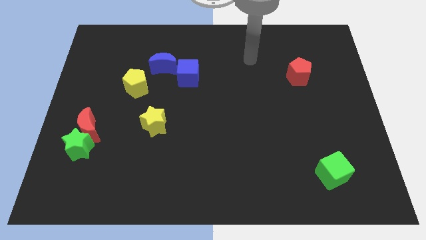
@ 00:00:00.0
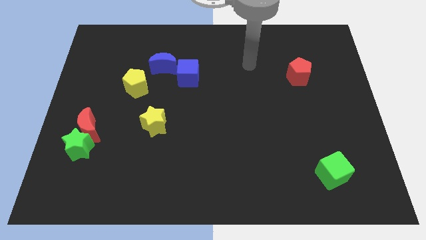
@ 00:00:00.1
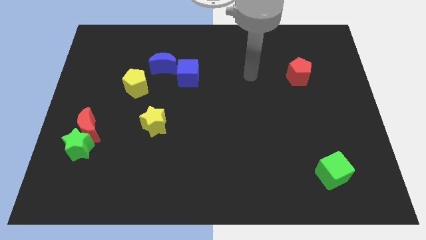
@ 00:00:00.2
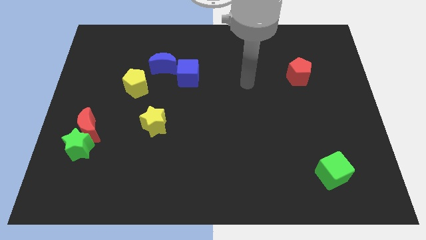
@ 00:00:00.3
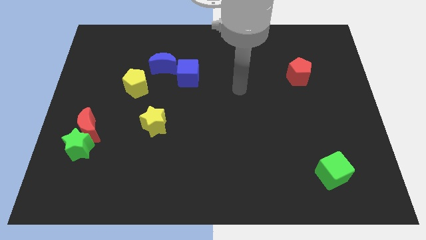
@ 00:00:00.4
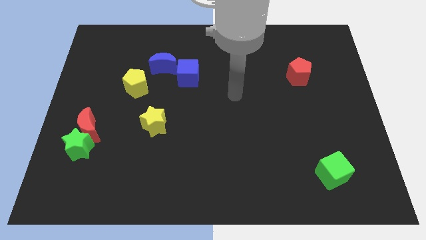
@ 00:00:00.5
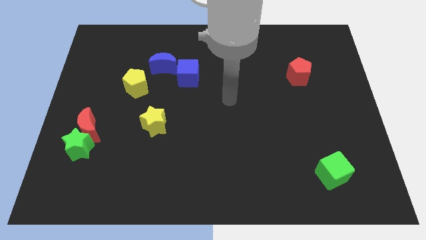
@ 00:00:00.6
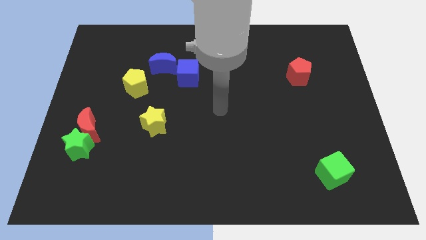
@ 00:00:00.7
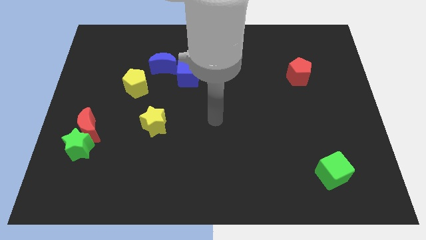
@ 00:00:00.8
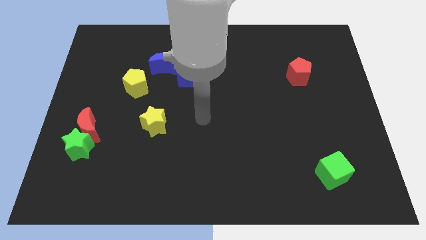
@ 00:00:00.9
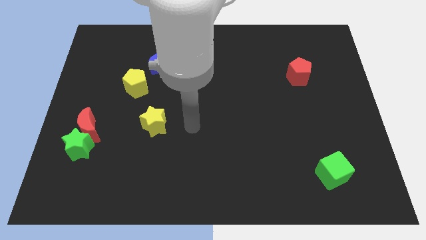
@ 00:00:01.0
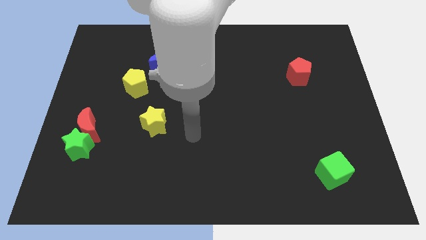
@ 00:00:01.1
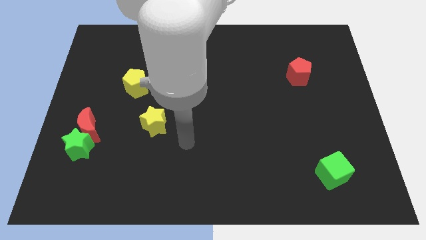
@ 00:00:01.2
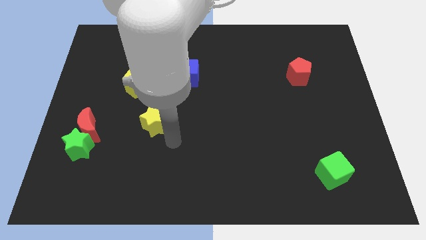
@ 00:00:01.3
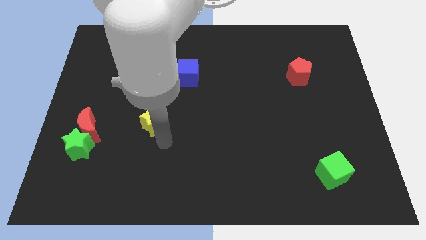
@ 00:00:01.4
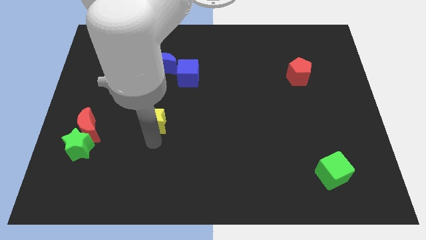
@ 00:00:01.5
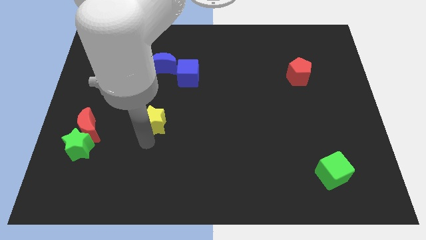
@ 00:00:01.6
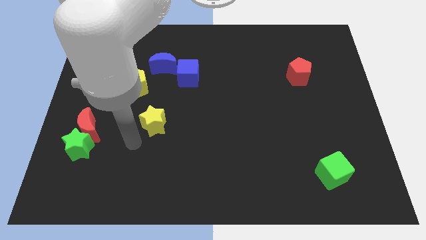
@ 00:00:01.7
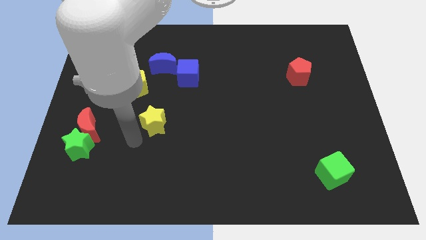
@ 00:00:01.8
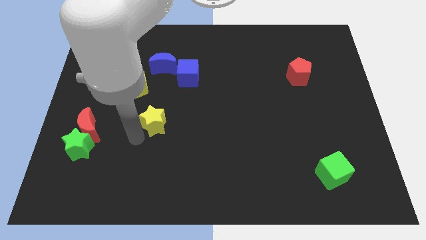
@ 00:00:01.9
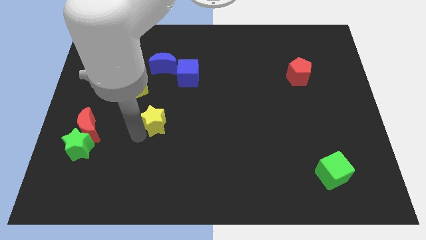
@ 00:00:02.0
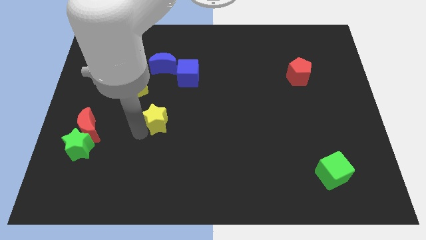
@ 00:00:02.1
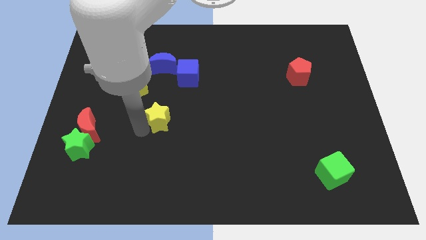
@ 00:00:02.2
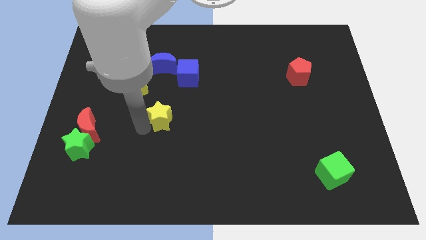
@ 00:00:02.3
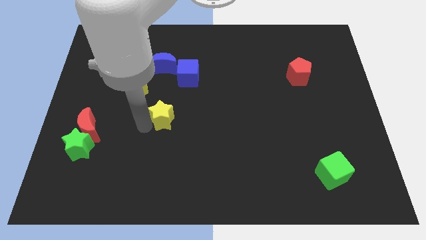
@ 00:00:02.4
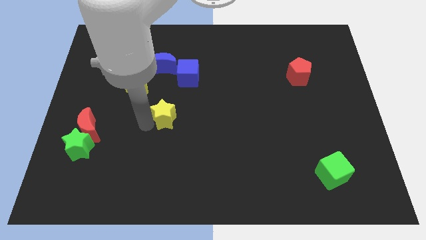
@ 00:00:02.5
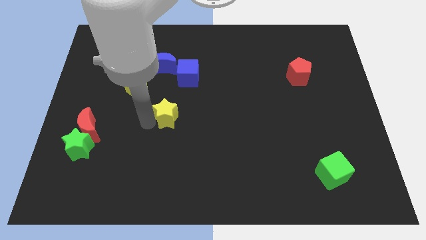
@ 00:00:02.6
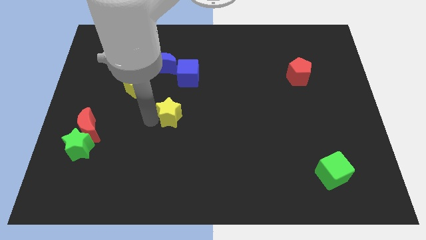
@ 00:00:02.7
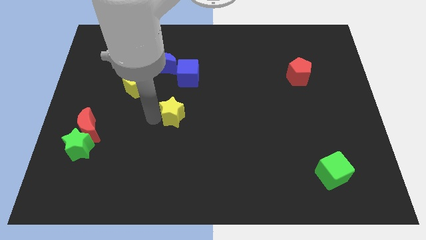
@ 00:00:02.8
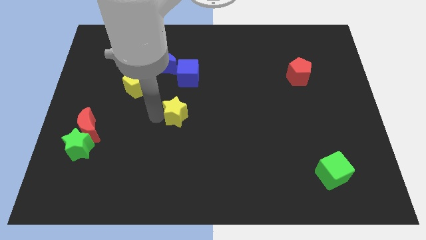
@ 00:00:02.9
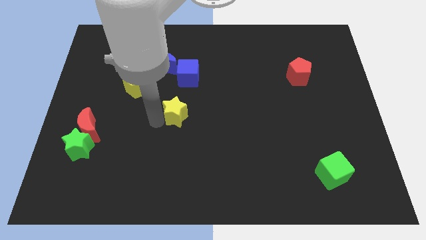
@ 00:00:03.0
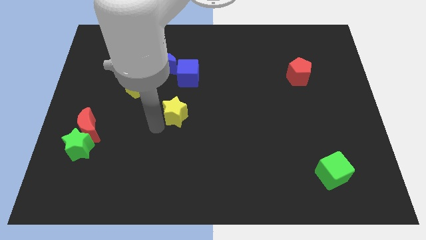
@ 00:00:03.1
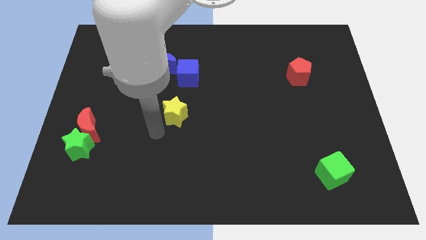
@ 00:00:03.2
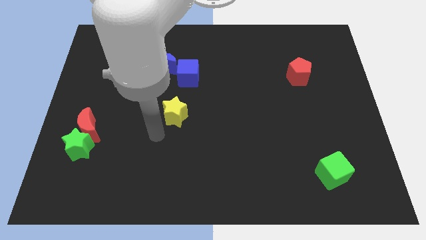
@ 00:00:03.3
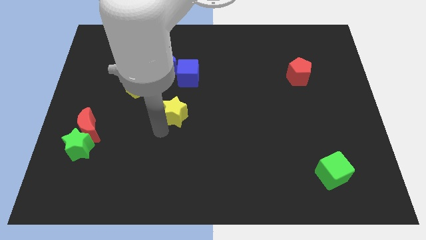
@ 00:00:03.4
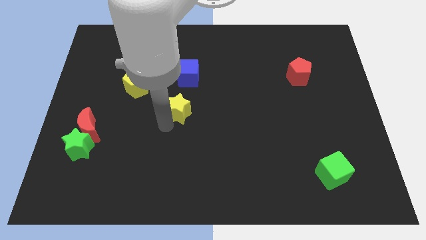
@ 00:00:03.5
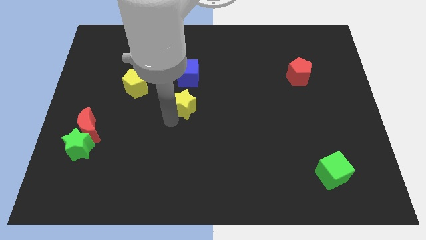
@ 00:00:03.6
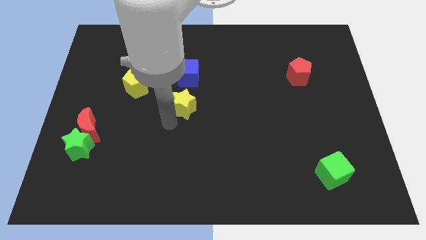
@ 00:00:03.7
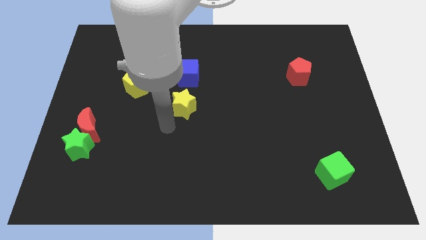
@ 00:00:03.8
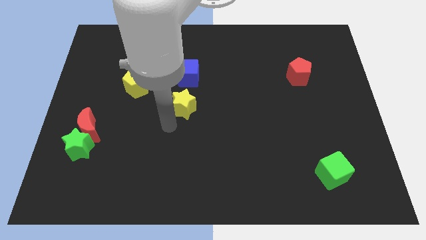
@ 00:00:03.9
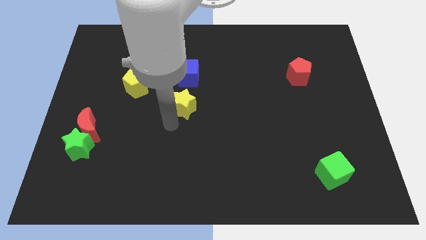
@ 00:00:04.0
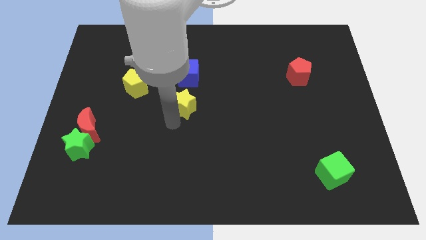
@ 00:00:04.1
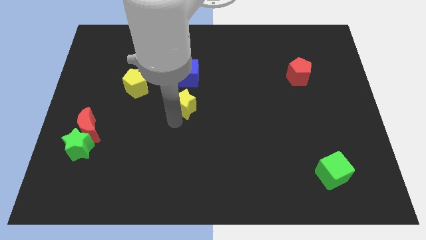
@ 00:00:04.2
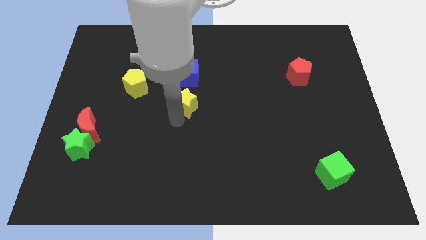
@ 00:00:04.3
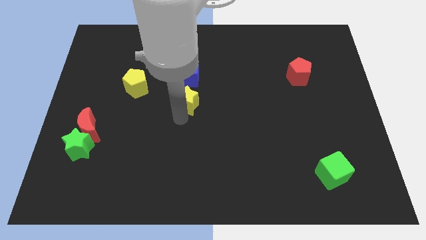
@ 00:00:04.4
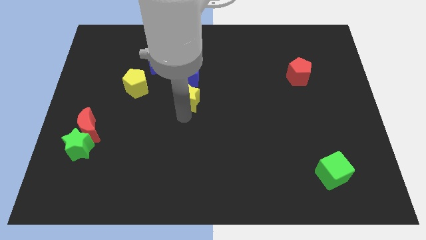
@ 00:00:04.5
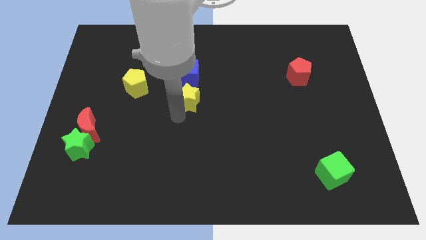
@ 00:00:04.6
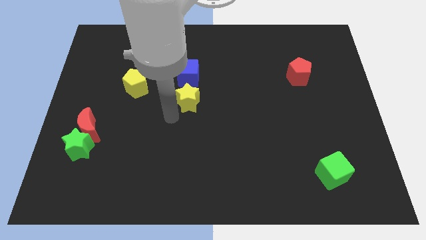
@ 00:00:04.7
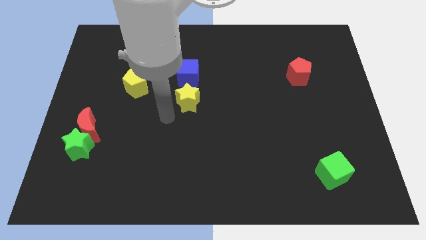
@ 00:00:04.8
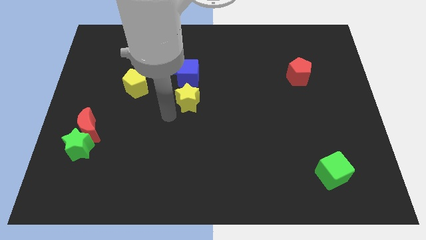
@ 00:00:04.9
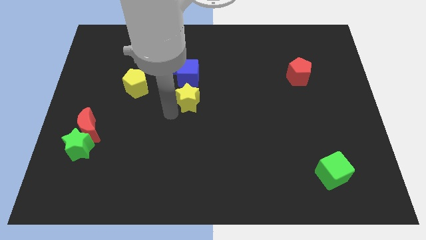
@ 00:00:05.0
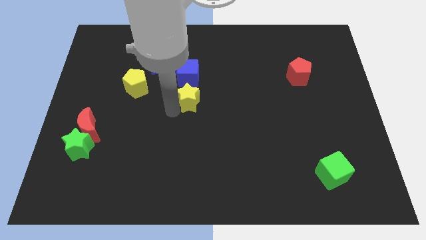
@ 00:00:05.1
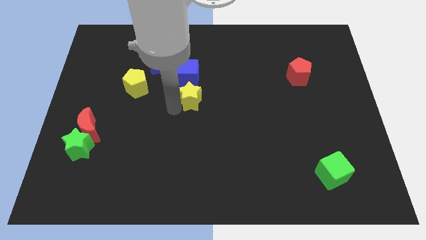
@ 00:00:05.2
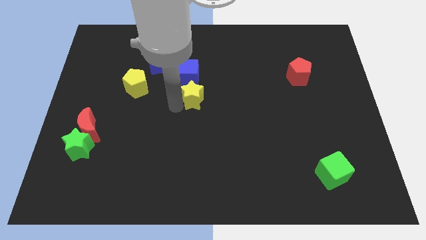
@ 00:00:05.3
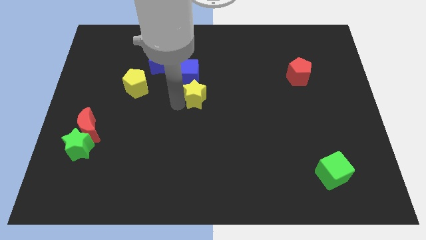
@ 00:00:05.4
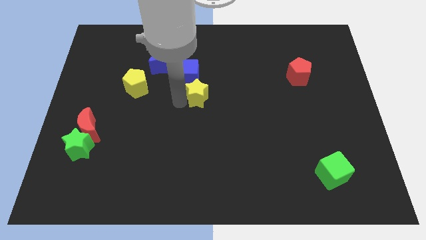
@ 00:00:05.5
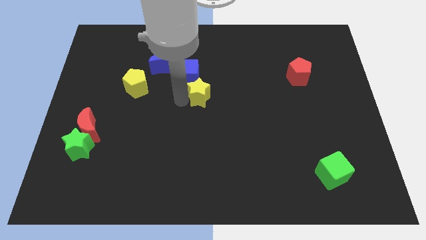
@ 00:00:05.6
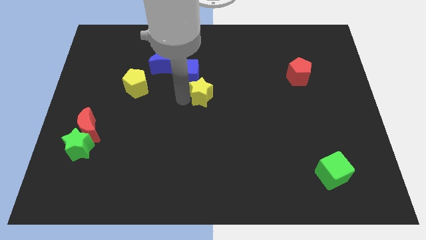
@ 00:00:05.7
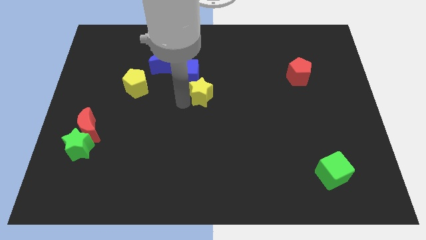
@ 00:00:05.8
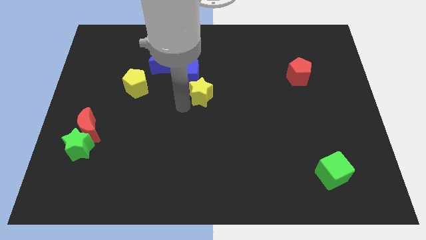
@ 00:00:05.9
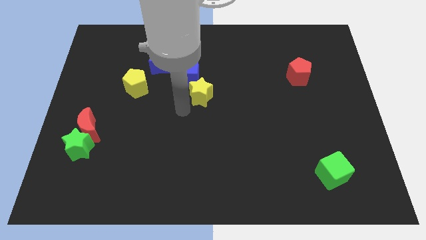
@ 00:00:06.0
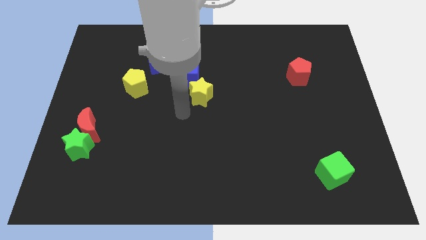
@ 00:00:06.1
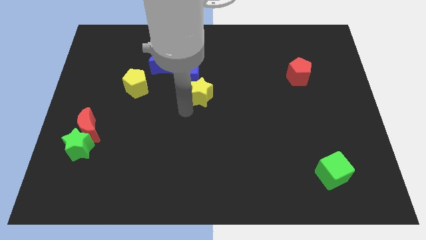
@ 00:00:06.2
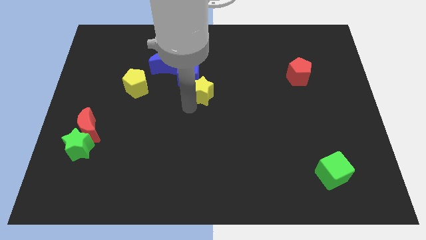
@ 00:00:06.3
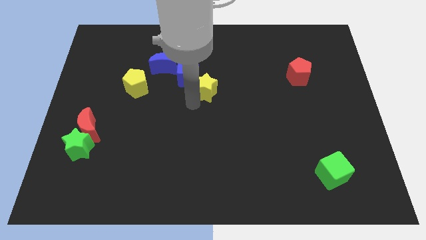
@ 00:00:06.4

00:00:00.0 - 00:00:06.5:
put the yellow star to the right side of the blue cube

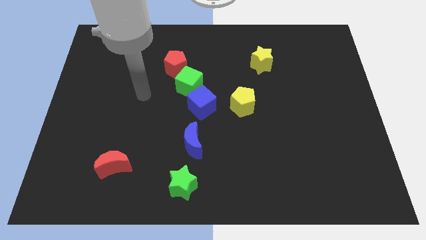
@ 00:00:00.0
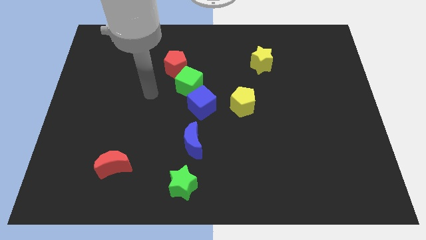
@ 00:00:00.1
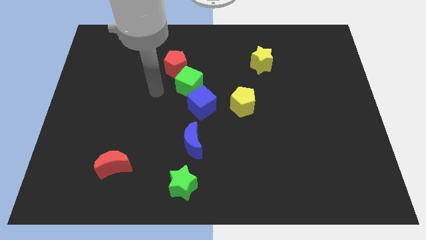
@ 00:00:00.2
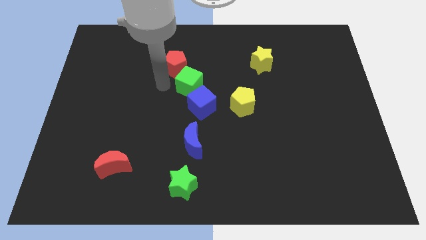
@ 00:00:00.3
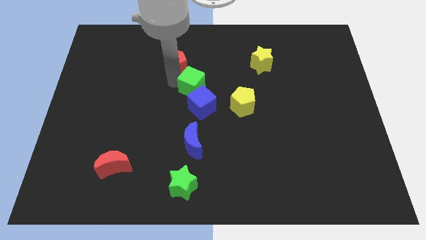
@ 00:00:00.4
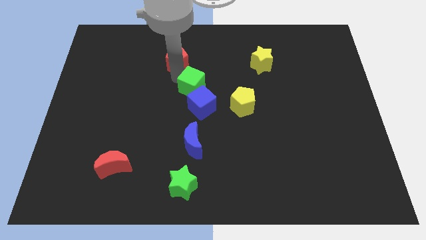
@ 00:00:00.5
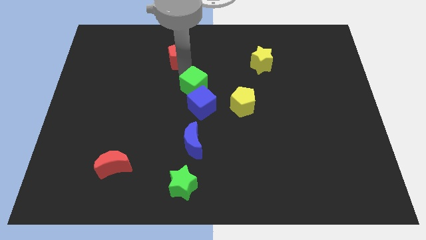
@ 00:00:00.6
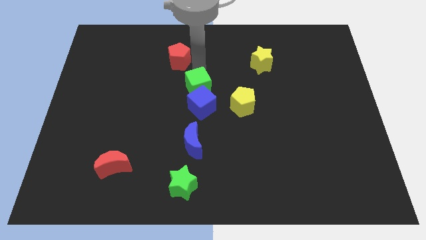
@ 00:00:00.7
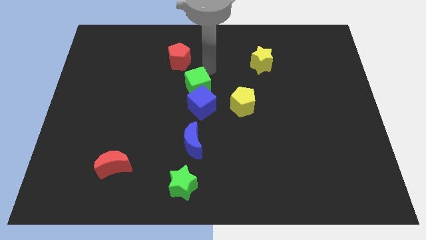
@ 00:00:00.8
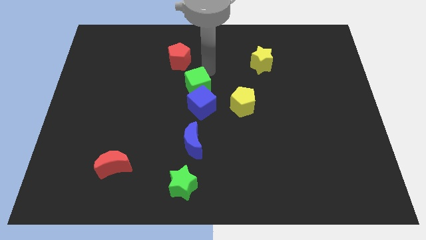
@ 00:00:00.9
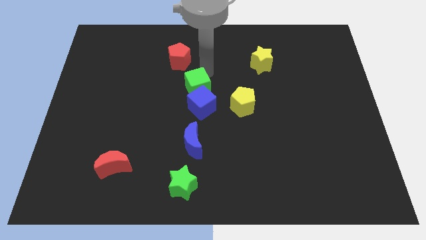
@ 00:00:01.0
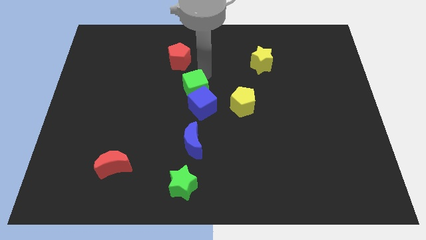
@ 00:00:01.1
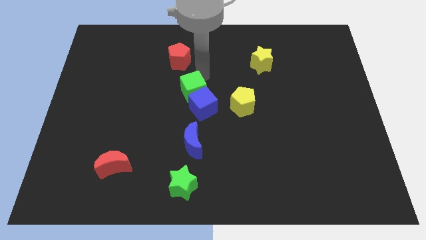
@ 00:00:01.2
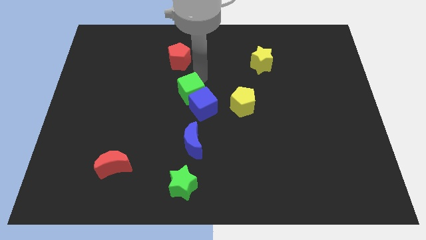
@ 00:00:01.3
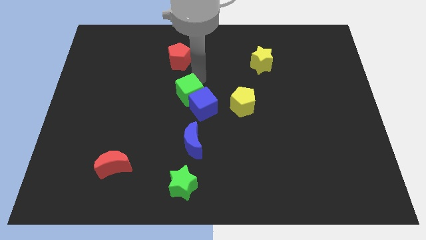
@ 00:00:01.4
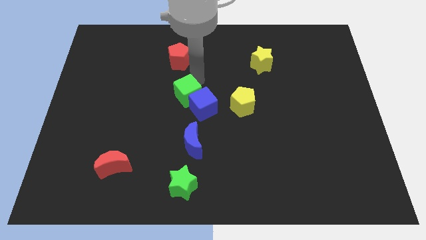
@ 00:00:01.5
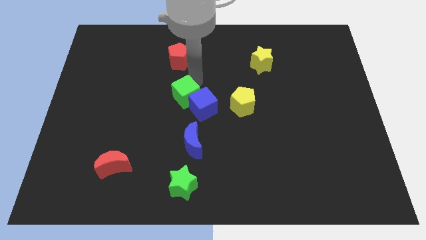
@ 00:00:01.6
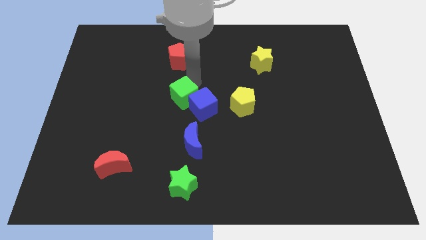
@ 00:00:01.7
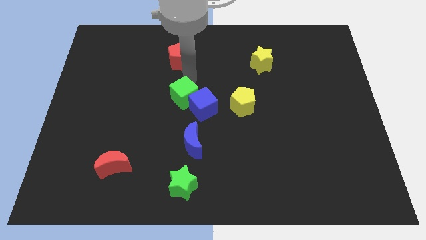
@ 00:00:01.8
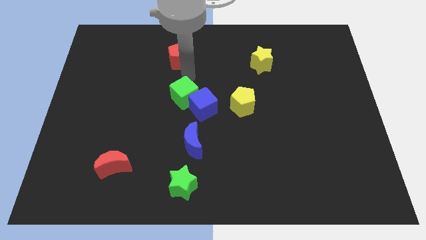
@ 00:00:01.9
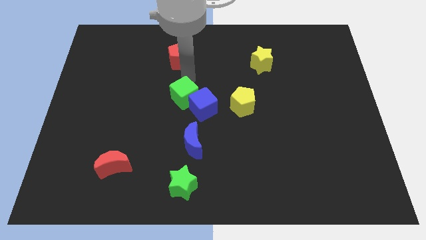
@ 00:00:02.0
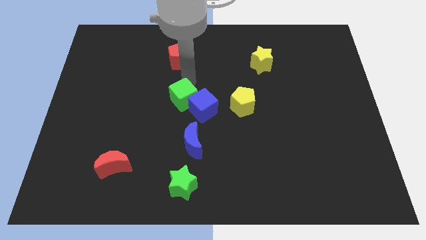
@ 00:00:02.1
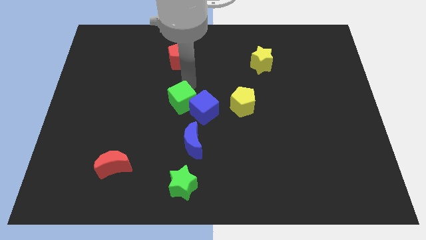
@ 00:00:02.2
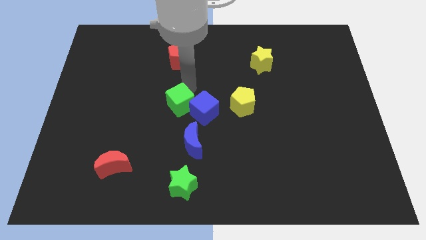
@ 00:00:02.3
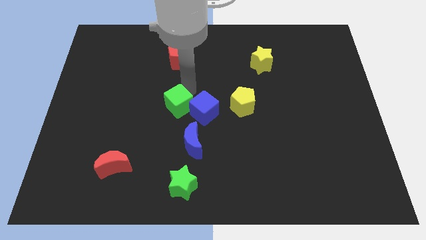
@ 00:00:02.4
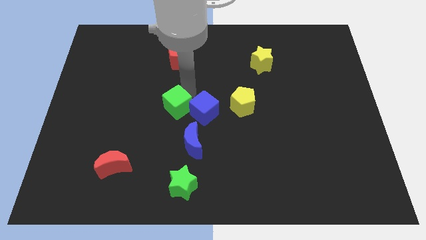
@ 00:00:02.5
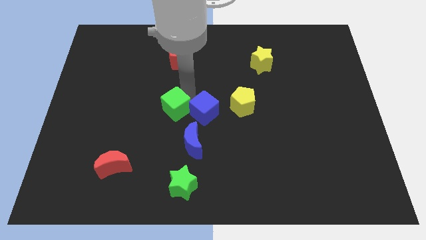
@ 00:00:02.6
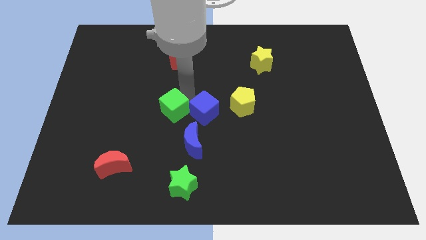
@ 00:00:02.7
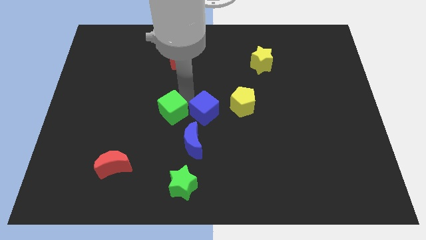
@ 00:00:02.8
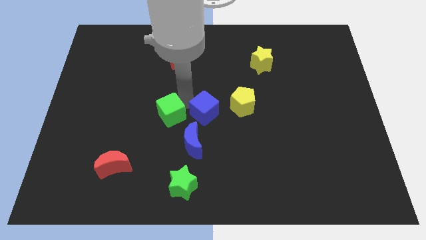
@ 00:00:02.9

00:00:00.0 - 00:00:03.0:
slide the green cube to the bottom left side of the blue cube
